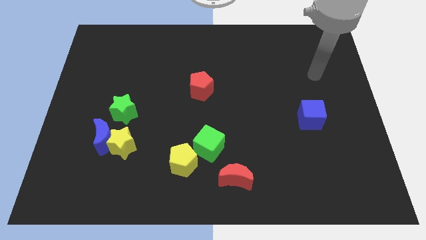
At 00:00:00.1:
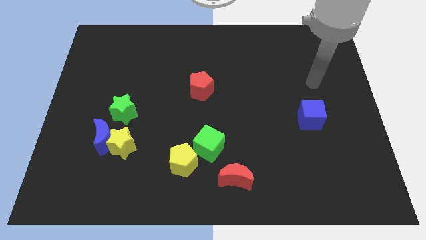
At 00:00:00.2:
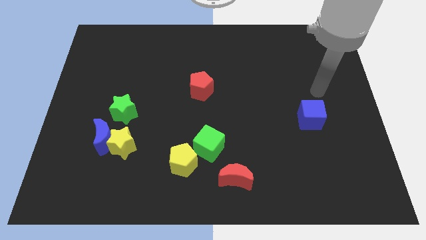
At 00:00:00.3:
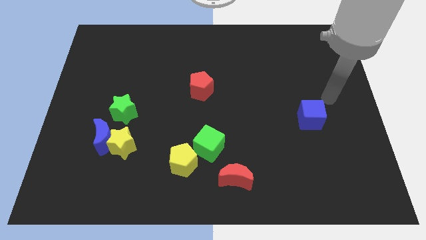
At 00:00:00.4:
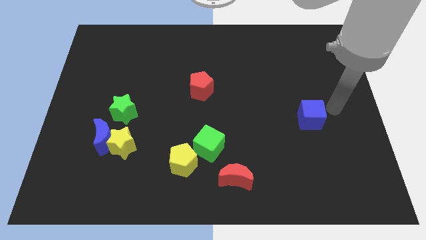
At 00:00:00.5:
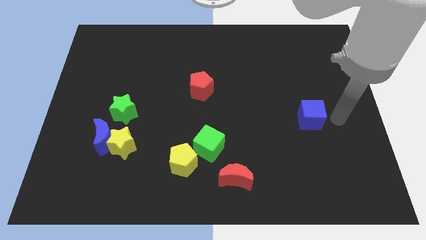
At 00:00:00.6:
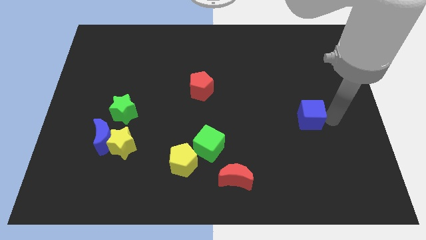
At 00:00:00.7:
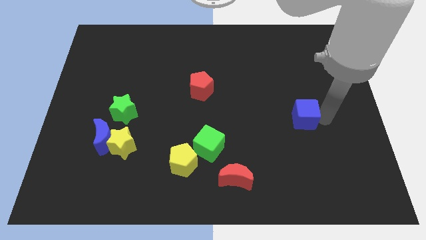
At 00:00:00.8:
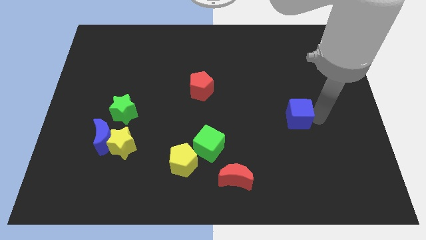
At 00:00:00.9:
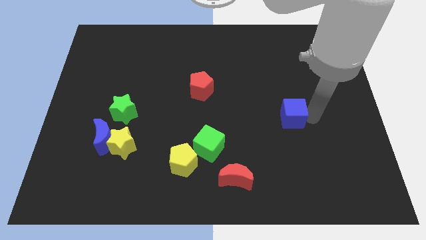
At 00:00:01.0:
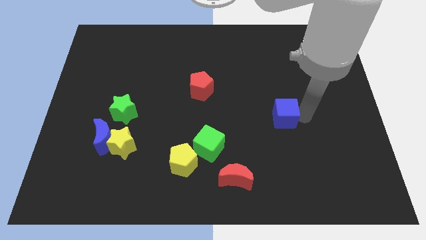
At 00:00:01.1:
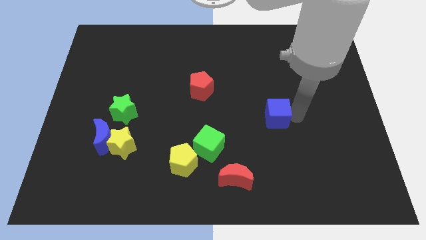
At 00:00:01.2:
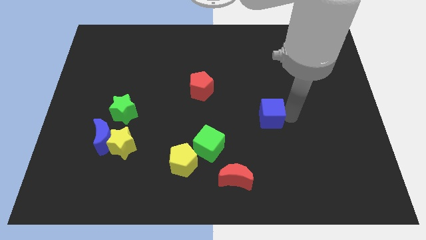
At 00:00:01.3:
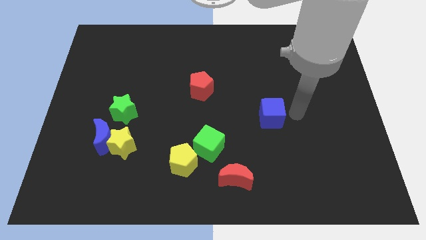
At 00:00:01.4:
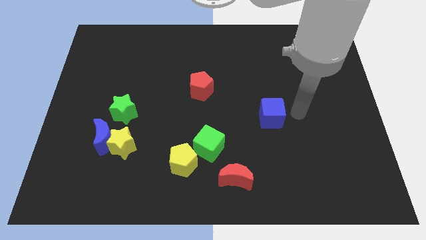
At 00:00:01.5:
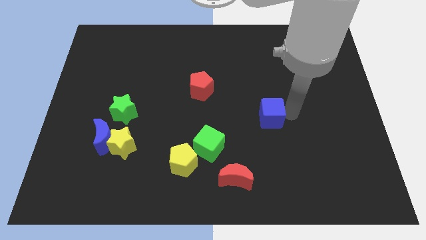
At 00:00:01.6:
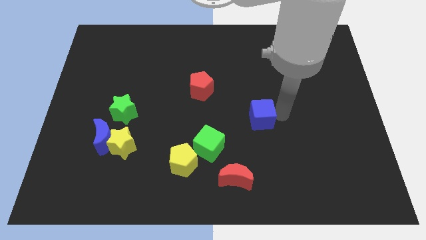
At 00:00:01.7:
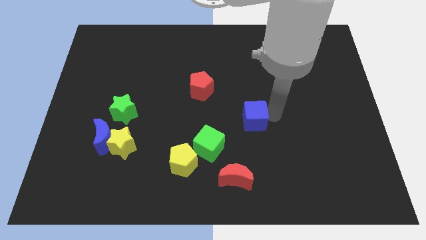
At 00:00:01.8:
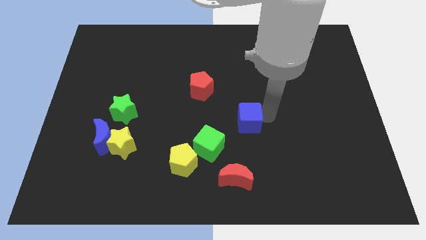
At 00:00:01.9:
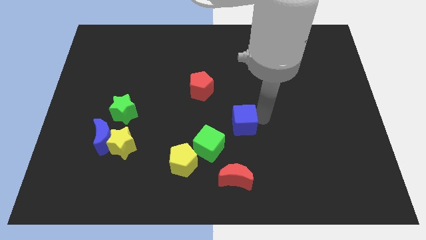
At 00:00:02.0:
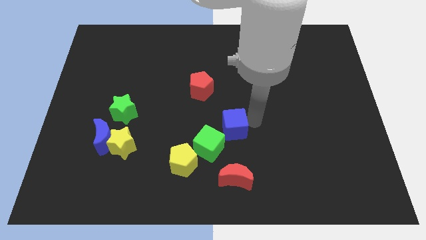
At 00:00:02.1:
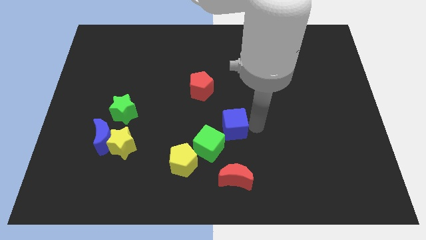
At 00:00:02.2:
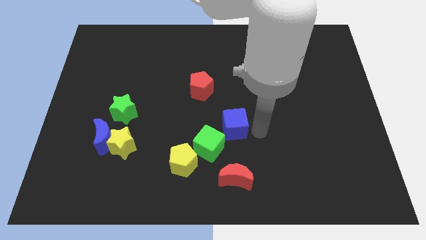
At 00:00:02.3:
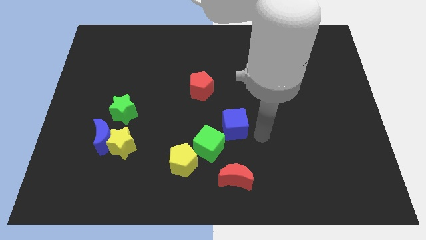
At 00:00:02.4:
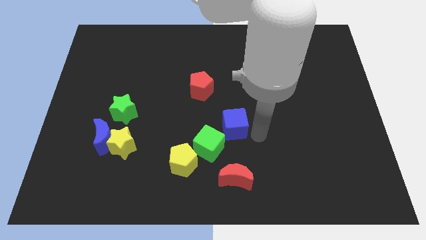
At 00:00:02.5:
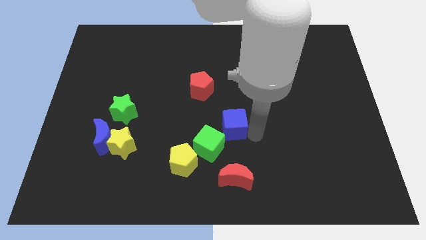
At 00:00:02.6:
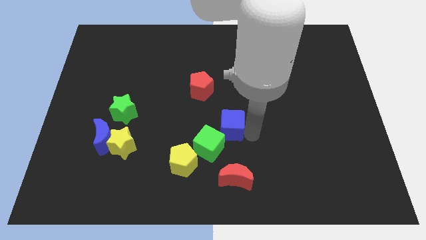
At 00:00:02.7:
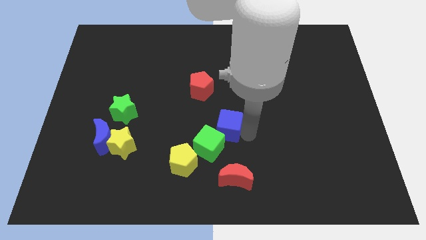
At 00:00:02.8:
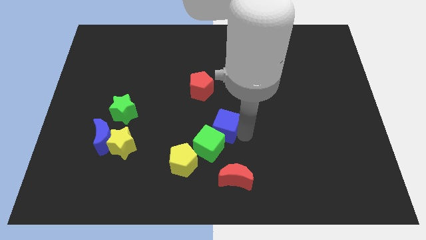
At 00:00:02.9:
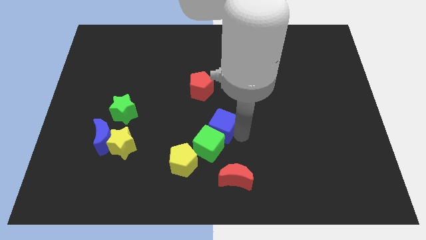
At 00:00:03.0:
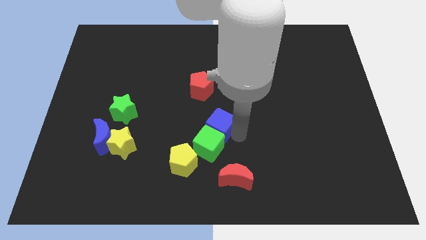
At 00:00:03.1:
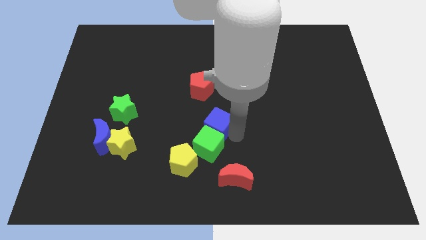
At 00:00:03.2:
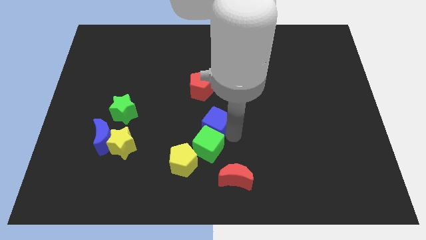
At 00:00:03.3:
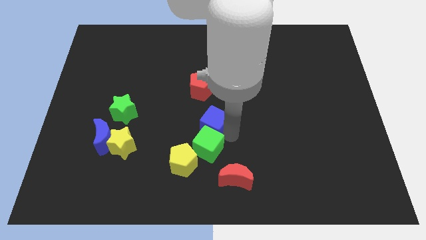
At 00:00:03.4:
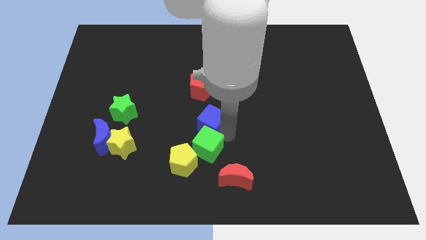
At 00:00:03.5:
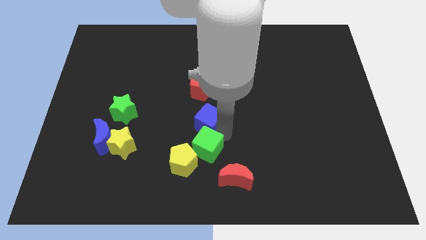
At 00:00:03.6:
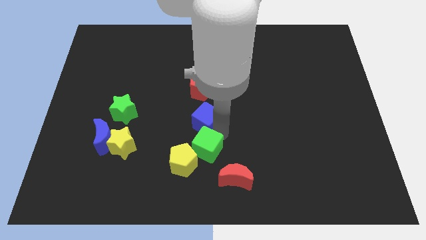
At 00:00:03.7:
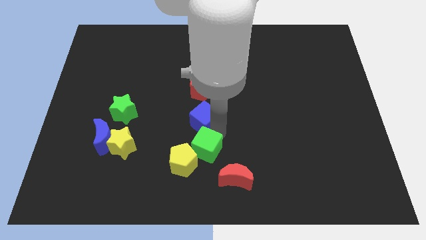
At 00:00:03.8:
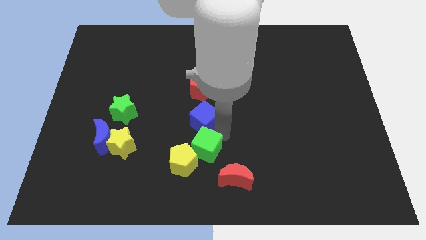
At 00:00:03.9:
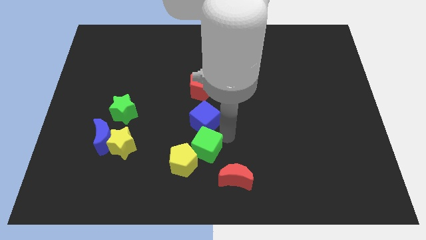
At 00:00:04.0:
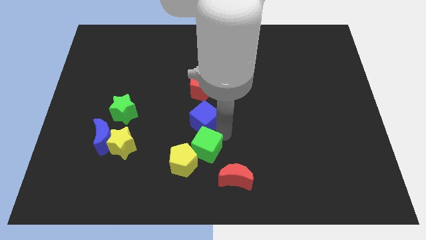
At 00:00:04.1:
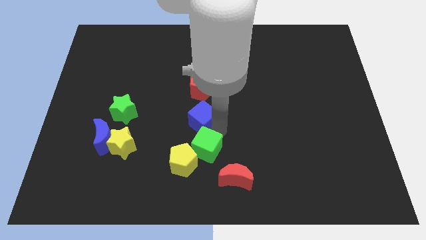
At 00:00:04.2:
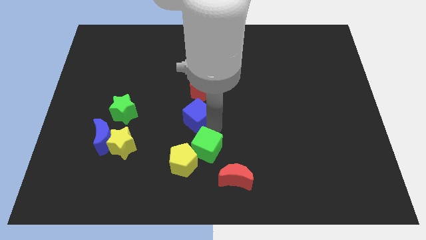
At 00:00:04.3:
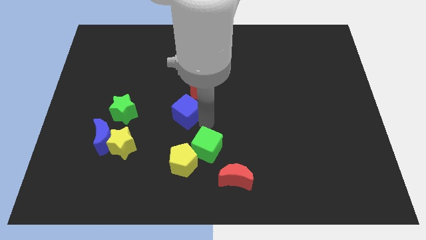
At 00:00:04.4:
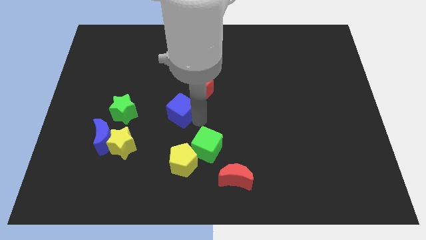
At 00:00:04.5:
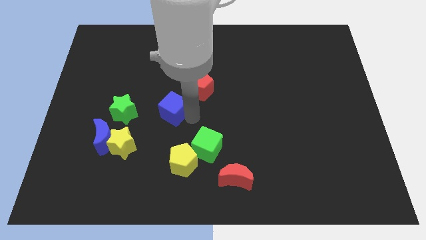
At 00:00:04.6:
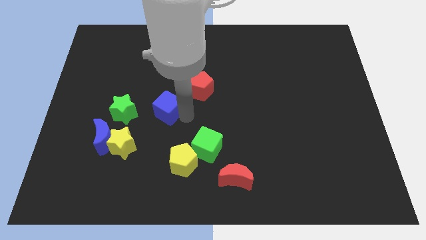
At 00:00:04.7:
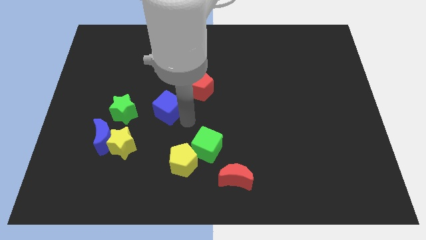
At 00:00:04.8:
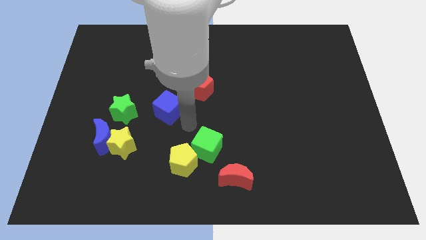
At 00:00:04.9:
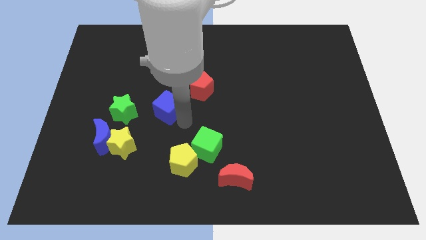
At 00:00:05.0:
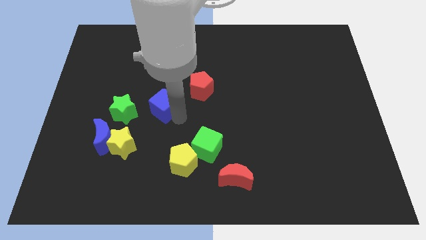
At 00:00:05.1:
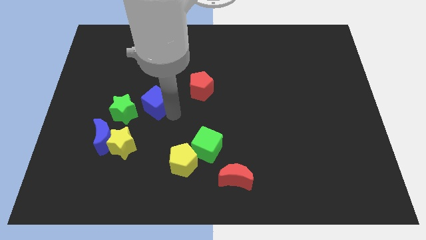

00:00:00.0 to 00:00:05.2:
put the blue cube diagonally up and to the right of the green star

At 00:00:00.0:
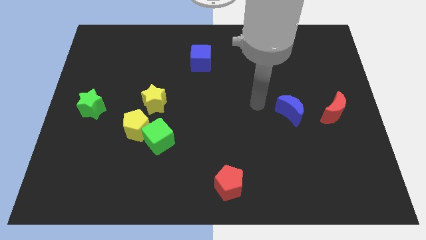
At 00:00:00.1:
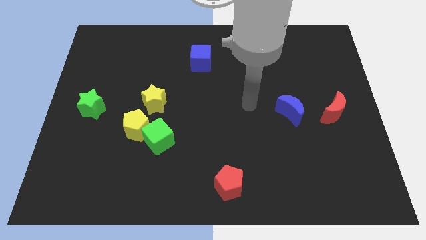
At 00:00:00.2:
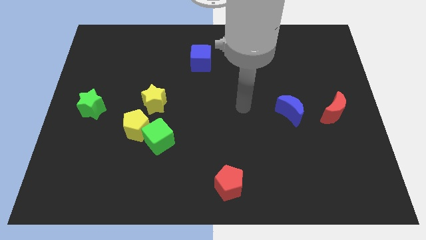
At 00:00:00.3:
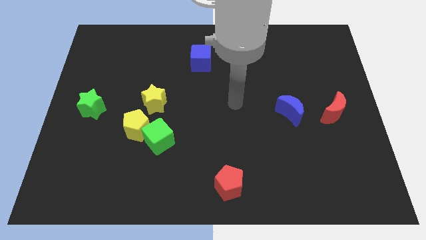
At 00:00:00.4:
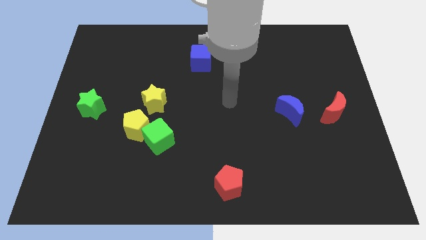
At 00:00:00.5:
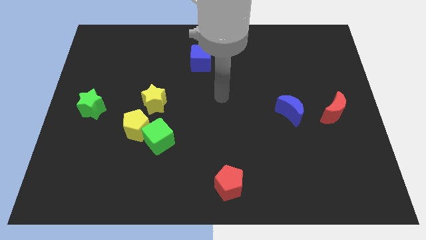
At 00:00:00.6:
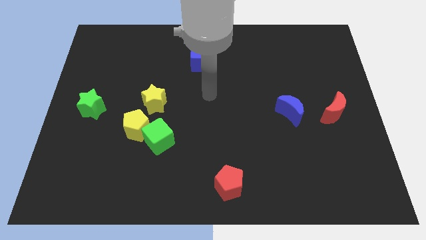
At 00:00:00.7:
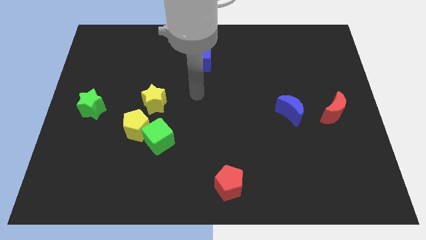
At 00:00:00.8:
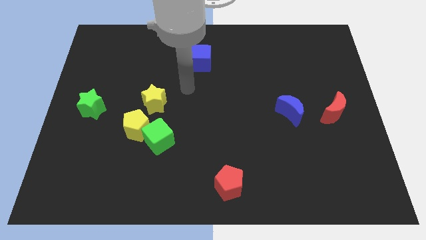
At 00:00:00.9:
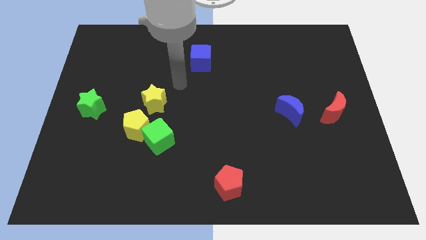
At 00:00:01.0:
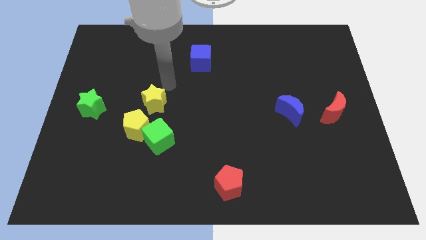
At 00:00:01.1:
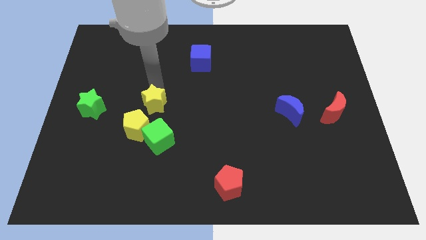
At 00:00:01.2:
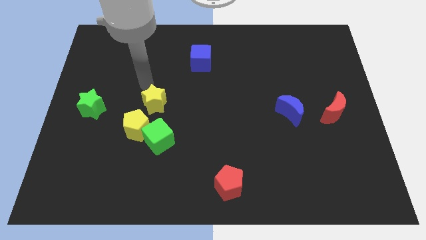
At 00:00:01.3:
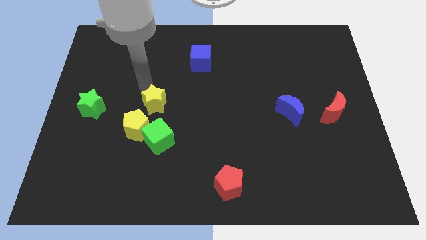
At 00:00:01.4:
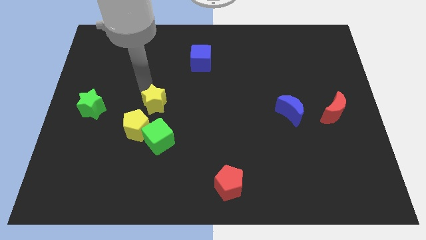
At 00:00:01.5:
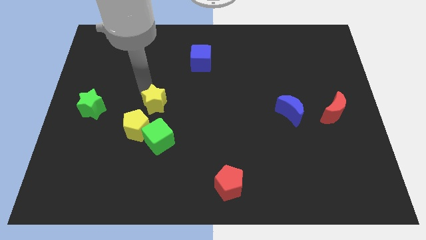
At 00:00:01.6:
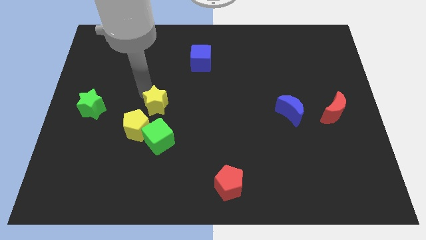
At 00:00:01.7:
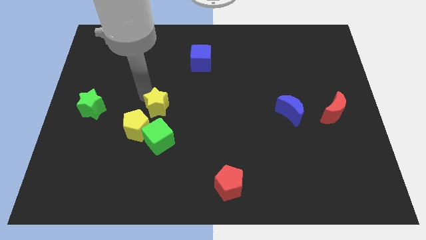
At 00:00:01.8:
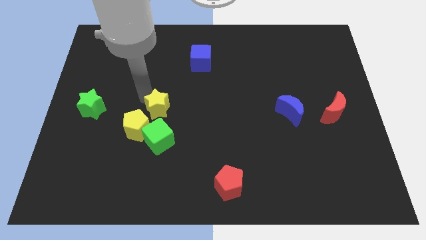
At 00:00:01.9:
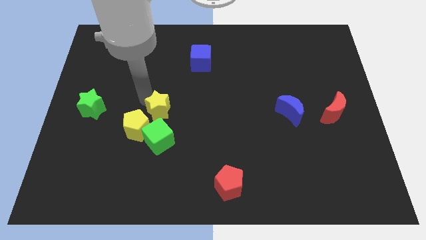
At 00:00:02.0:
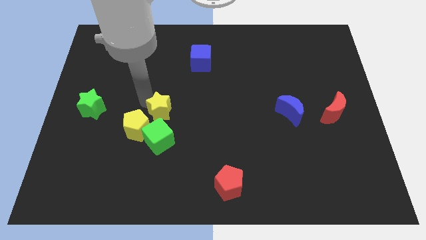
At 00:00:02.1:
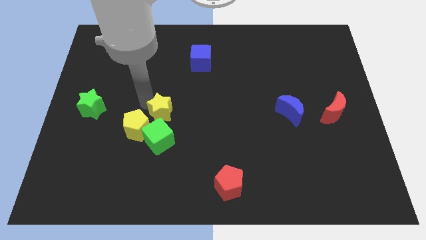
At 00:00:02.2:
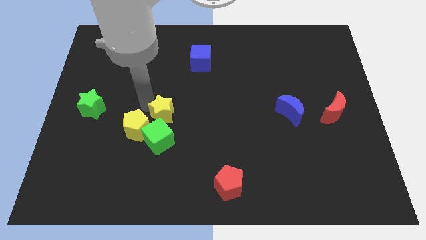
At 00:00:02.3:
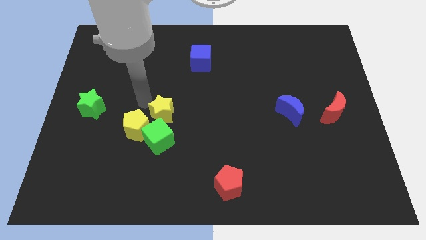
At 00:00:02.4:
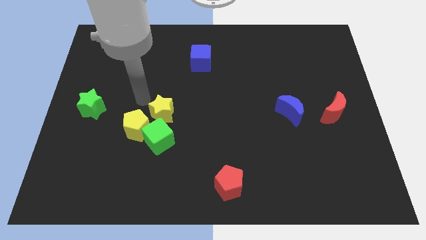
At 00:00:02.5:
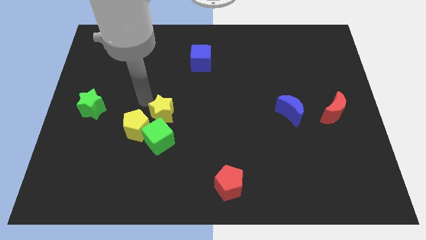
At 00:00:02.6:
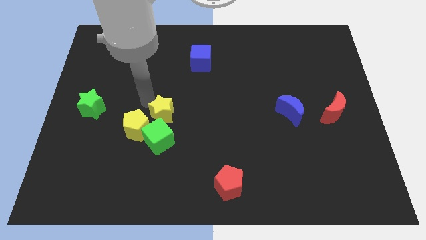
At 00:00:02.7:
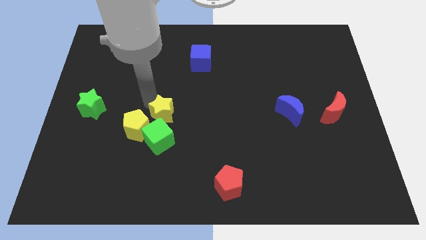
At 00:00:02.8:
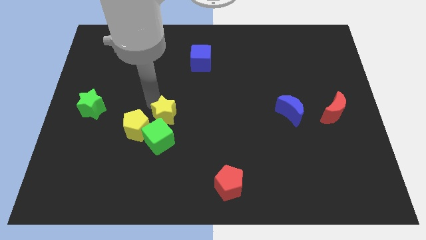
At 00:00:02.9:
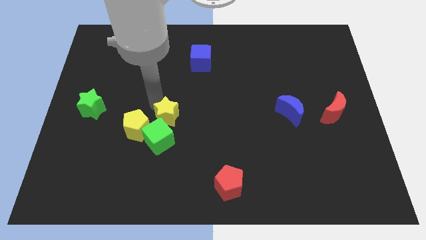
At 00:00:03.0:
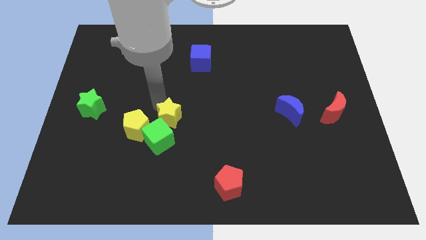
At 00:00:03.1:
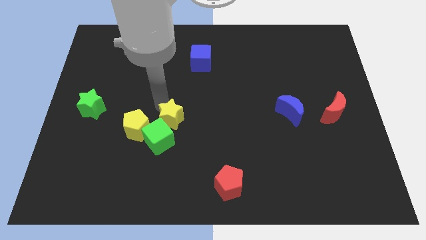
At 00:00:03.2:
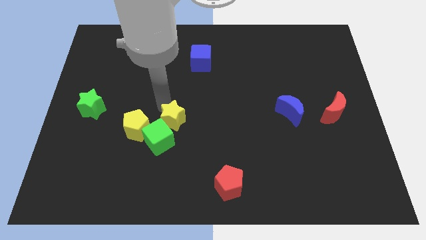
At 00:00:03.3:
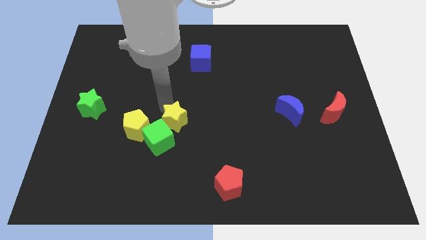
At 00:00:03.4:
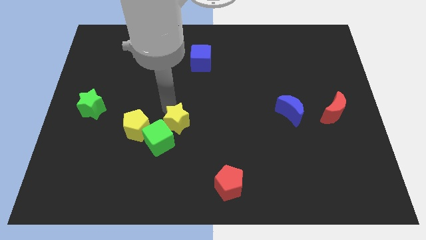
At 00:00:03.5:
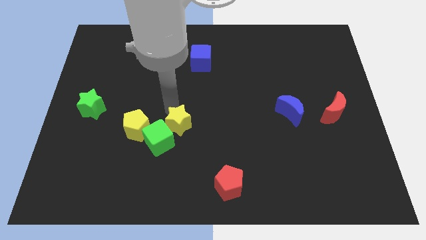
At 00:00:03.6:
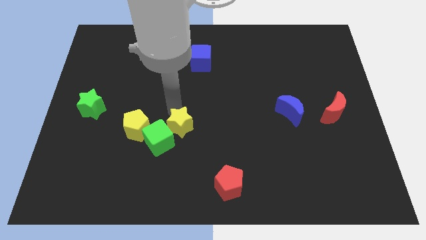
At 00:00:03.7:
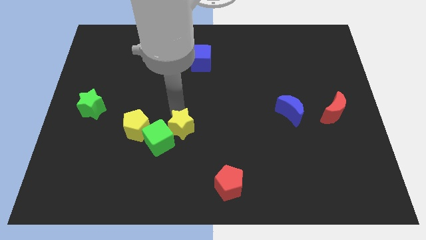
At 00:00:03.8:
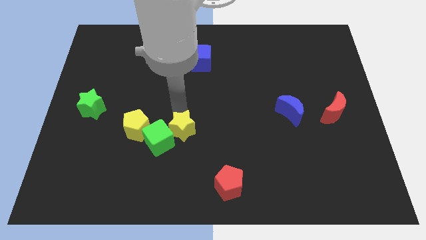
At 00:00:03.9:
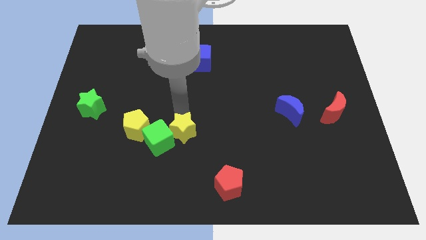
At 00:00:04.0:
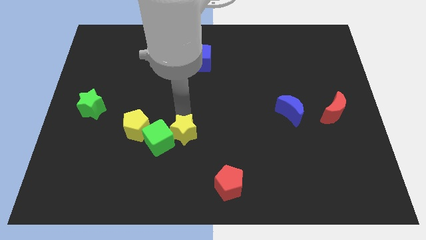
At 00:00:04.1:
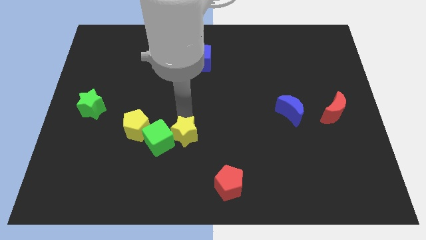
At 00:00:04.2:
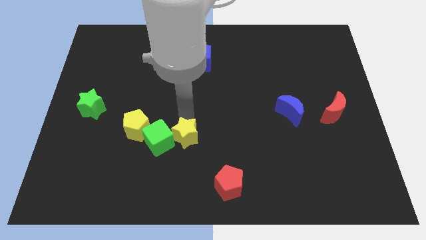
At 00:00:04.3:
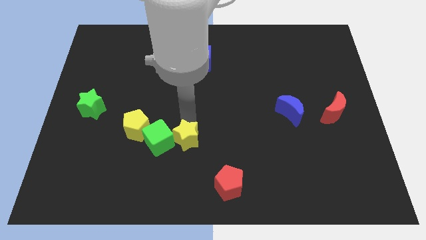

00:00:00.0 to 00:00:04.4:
move the yellow star to the bottom right side of the green cube
